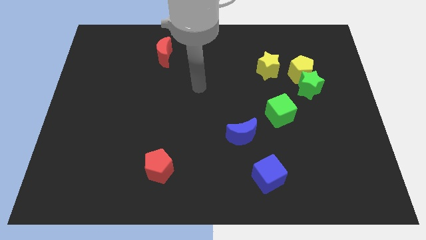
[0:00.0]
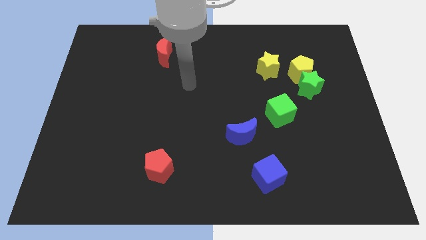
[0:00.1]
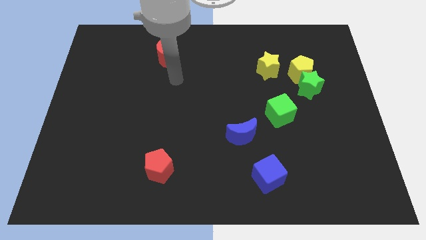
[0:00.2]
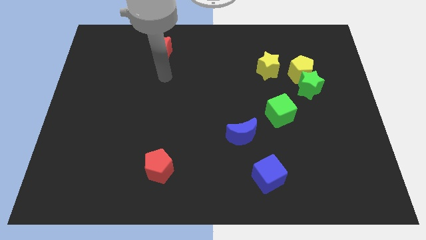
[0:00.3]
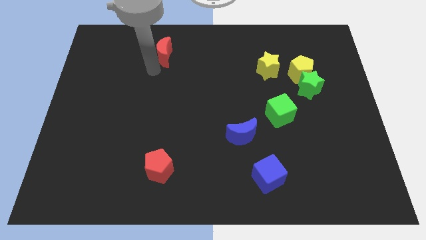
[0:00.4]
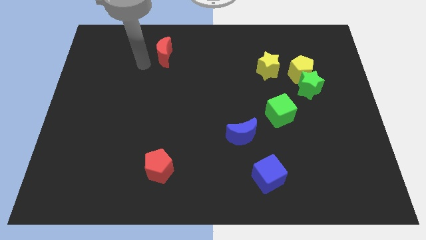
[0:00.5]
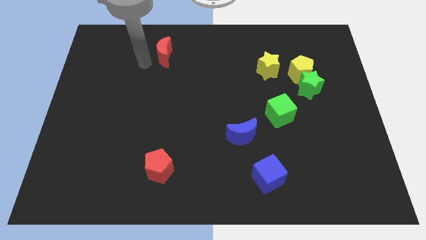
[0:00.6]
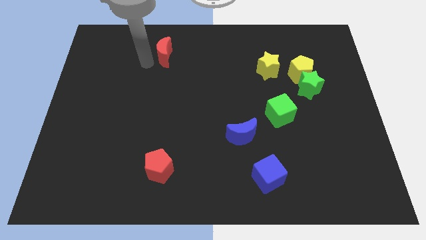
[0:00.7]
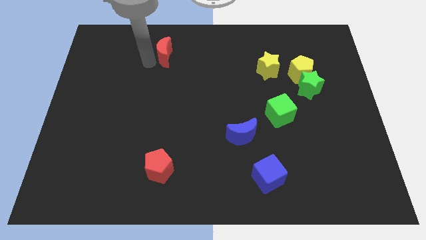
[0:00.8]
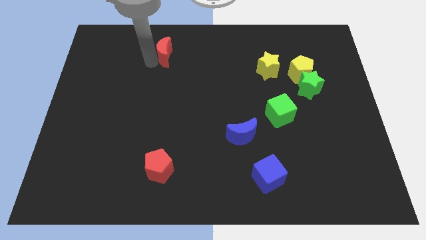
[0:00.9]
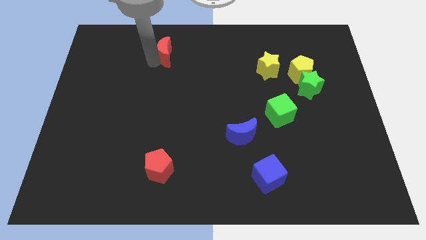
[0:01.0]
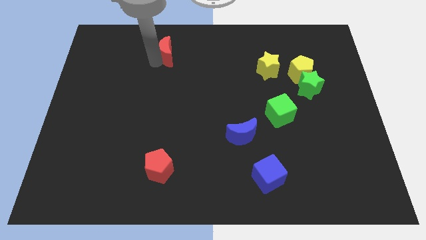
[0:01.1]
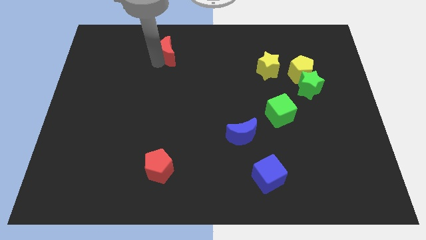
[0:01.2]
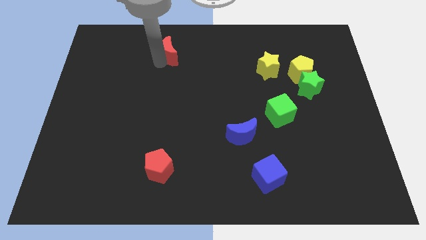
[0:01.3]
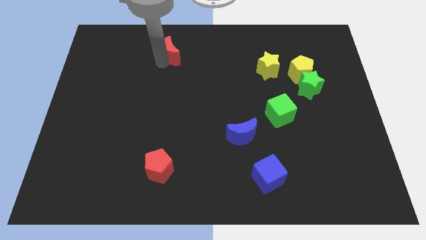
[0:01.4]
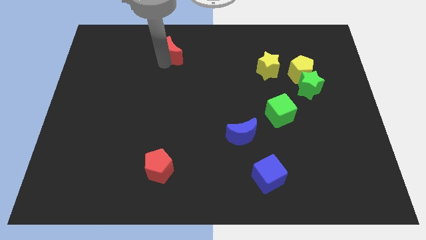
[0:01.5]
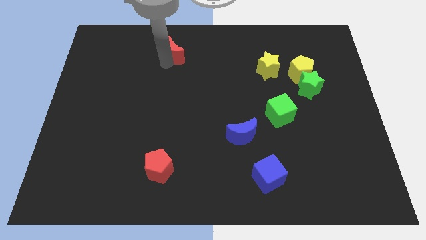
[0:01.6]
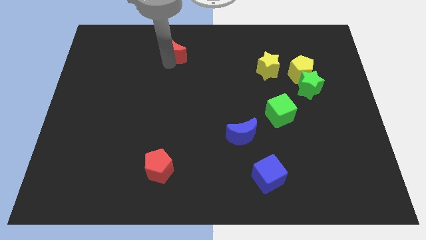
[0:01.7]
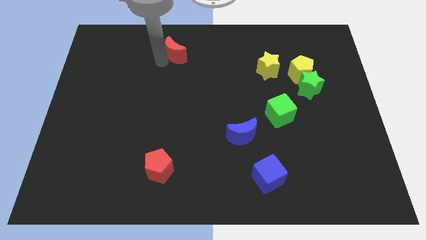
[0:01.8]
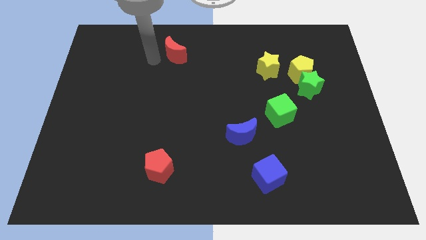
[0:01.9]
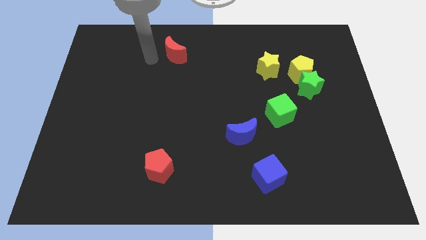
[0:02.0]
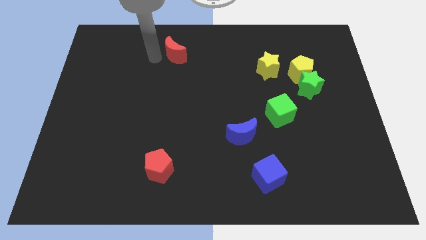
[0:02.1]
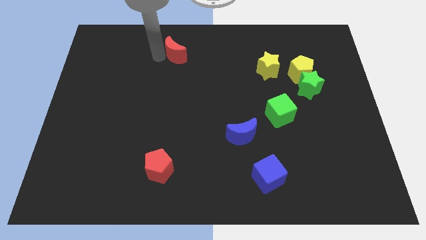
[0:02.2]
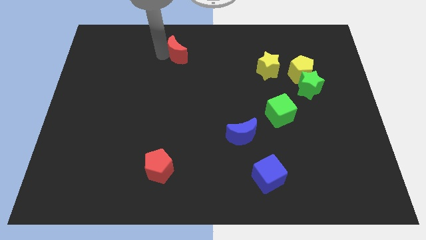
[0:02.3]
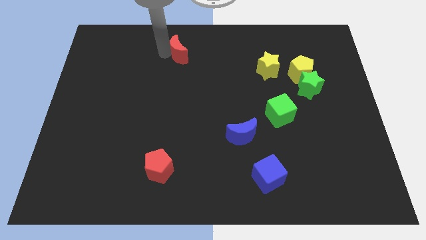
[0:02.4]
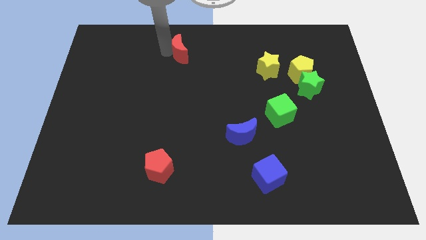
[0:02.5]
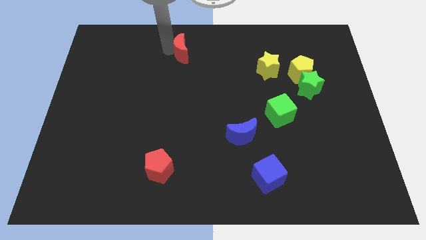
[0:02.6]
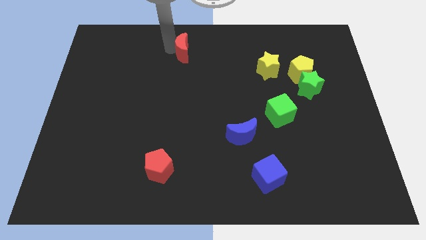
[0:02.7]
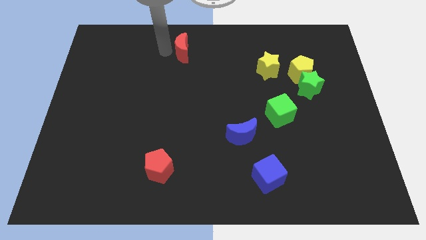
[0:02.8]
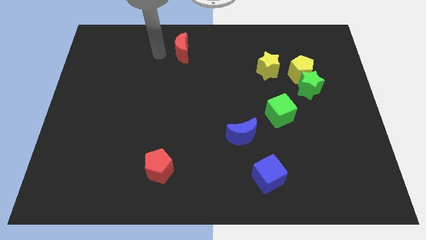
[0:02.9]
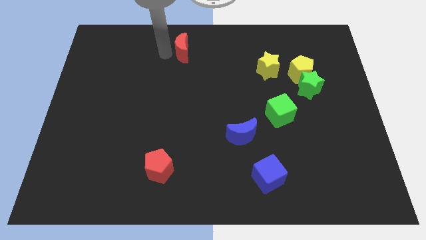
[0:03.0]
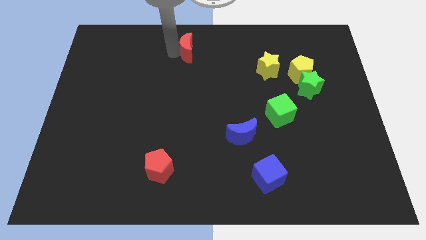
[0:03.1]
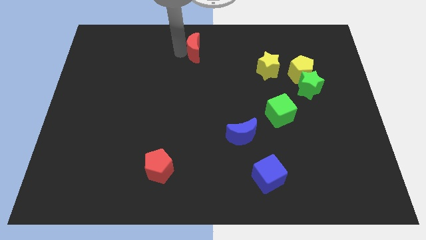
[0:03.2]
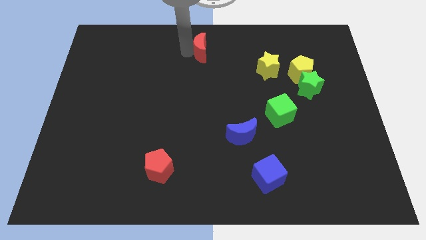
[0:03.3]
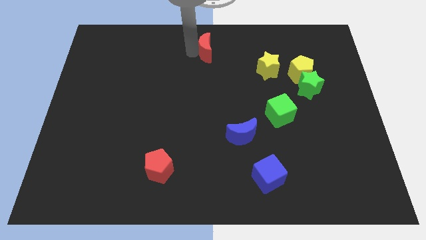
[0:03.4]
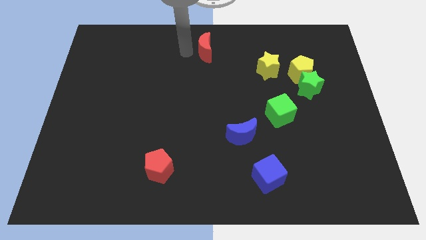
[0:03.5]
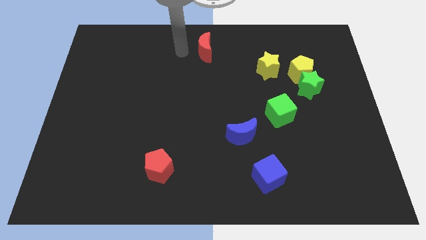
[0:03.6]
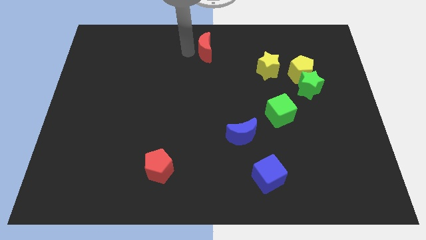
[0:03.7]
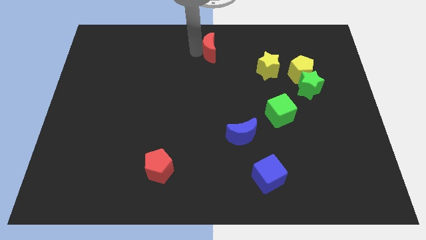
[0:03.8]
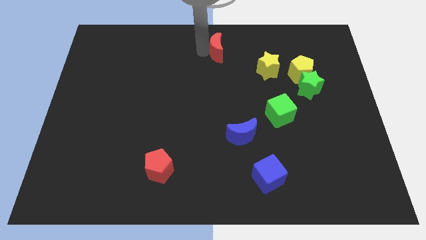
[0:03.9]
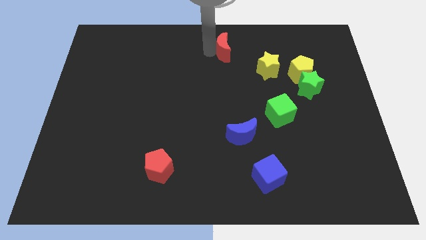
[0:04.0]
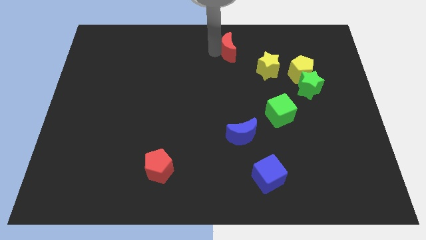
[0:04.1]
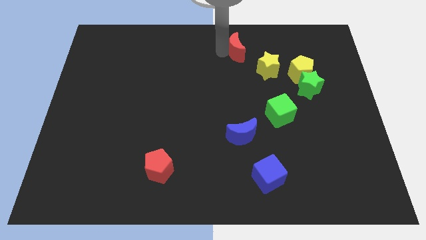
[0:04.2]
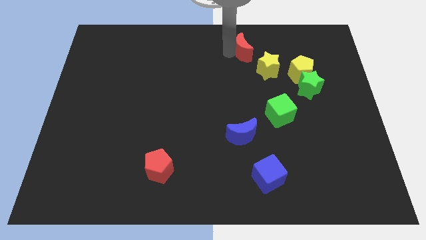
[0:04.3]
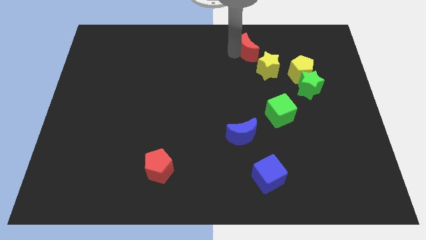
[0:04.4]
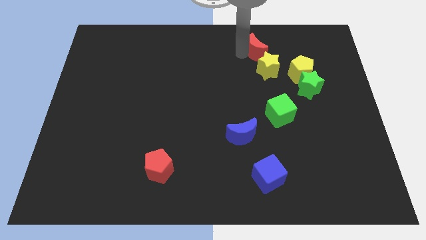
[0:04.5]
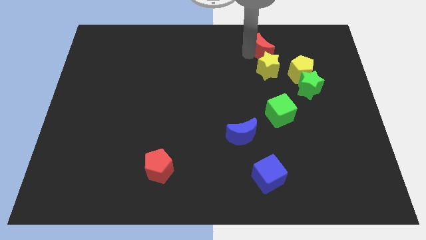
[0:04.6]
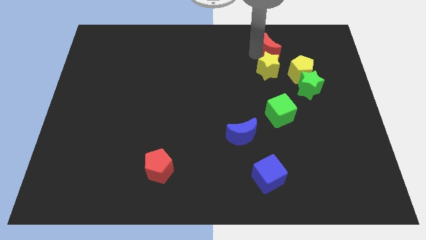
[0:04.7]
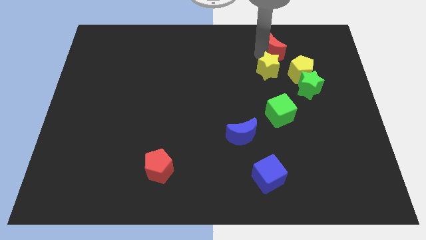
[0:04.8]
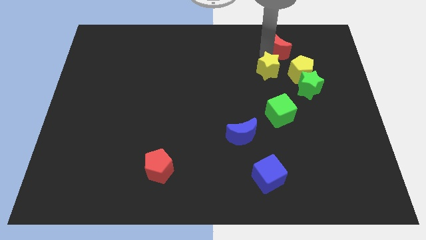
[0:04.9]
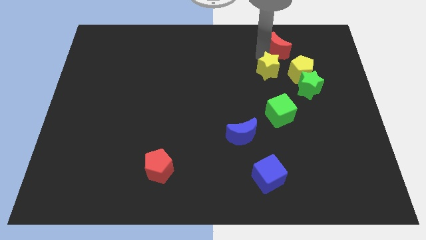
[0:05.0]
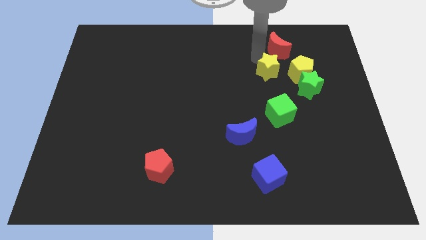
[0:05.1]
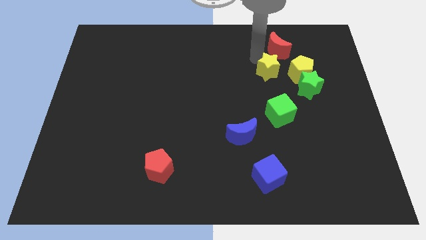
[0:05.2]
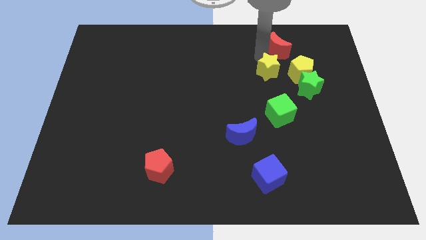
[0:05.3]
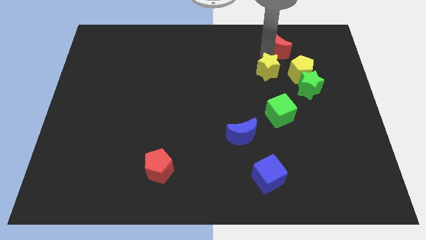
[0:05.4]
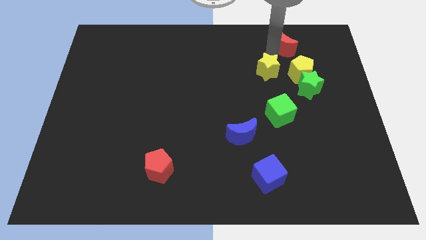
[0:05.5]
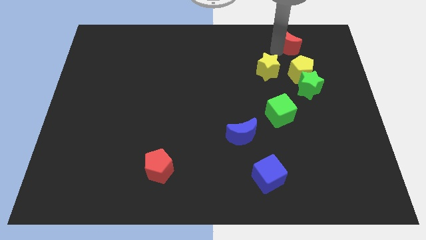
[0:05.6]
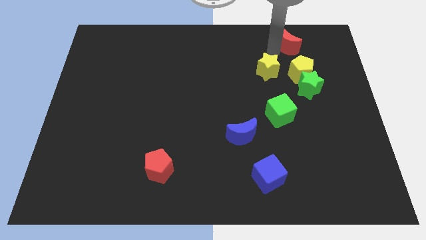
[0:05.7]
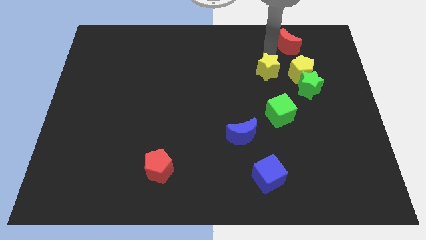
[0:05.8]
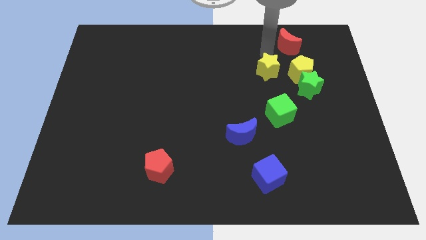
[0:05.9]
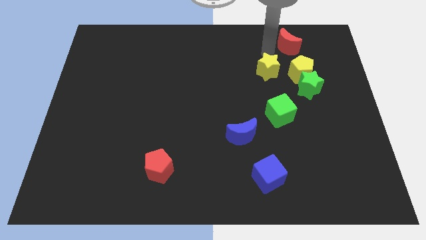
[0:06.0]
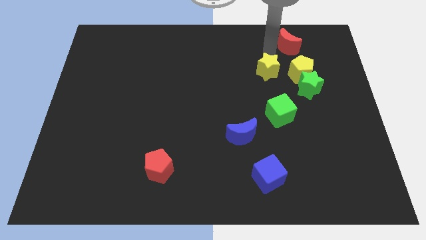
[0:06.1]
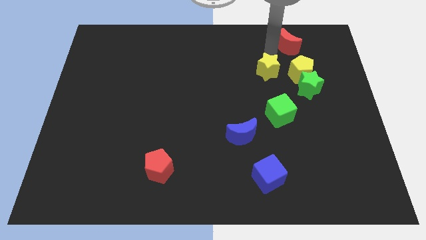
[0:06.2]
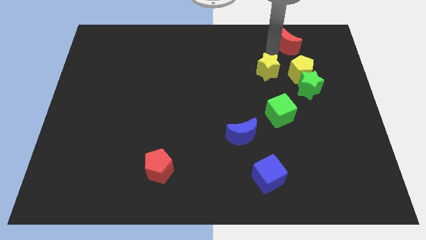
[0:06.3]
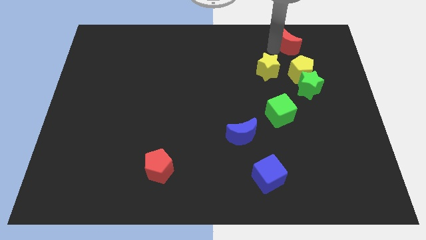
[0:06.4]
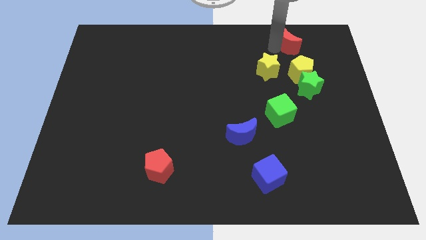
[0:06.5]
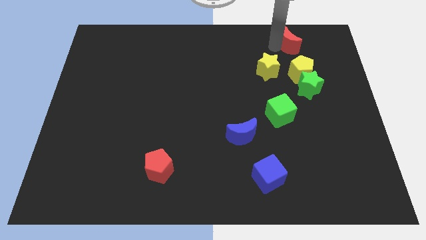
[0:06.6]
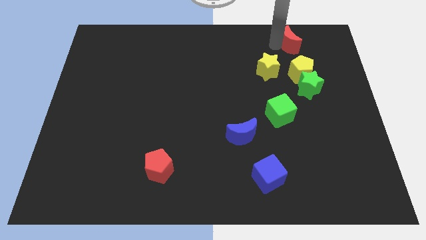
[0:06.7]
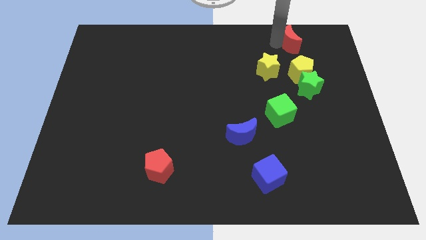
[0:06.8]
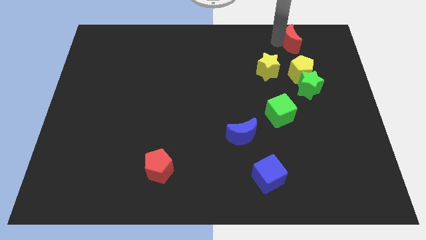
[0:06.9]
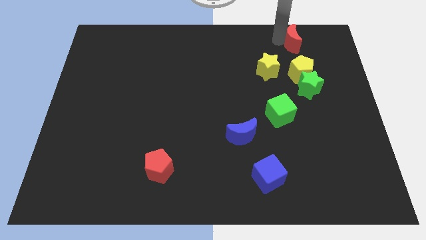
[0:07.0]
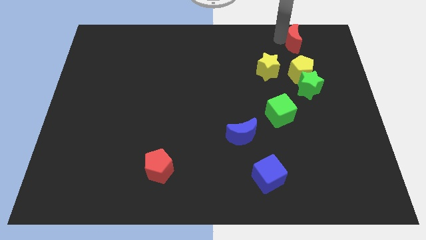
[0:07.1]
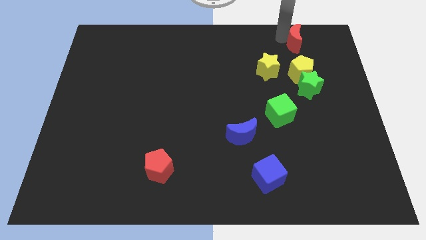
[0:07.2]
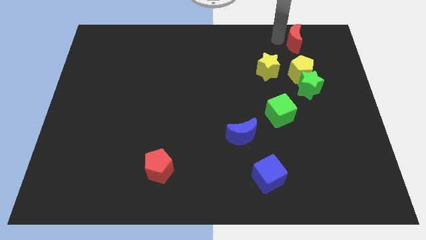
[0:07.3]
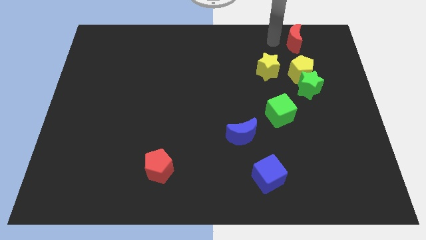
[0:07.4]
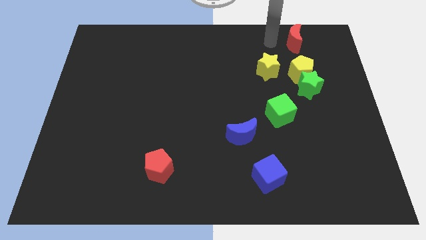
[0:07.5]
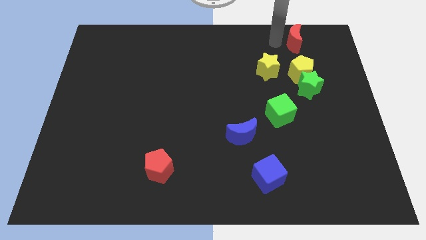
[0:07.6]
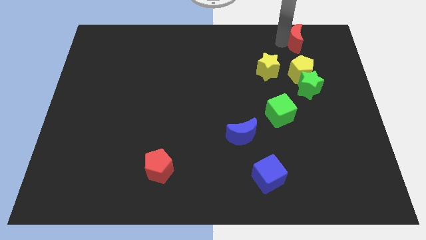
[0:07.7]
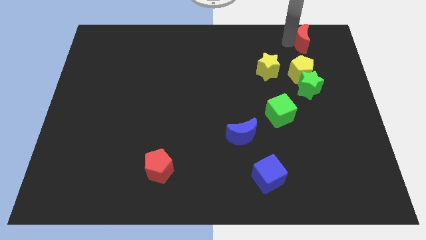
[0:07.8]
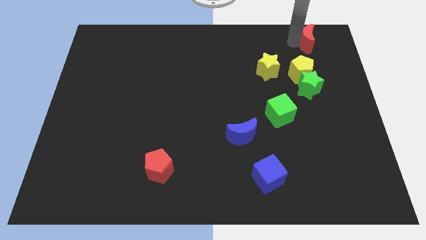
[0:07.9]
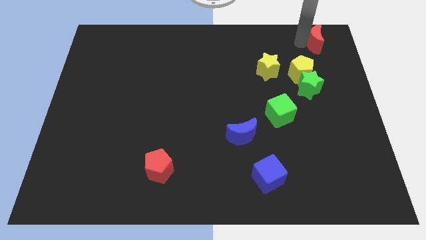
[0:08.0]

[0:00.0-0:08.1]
slide the red moon to the top right of the board
